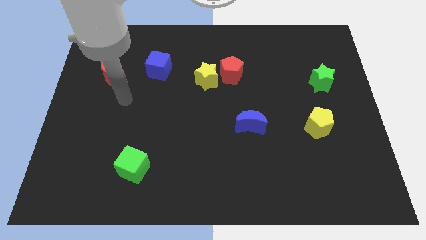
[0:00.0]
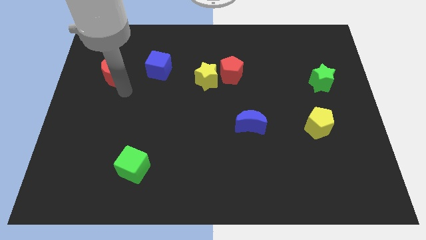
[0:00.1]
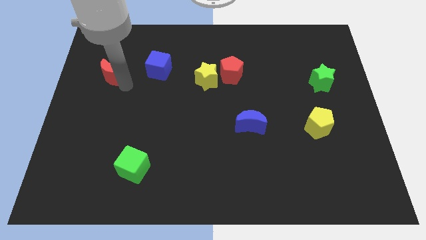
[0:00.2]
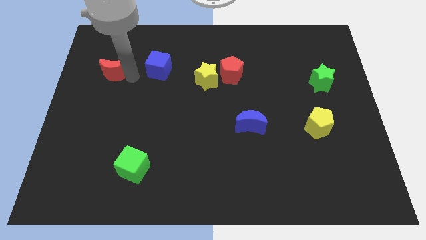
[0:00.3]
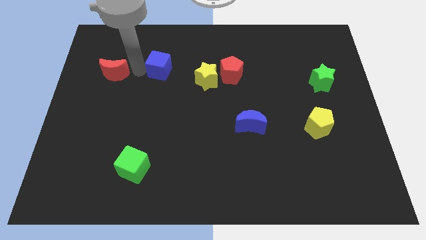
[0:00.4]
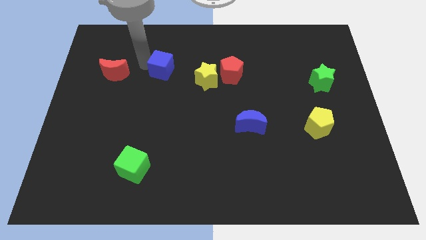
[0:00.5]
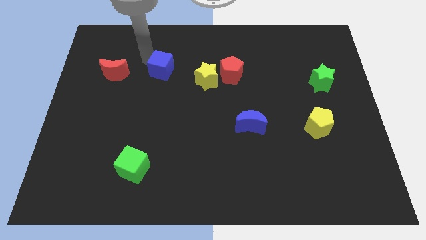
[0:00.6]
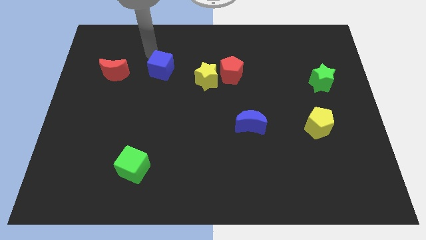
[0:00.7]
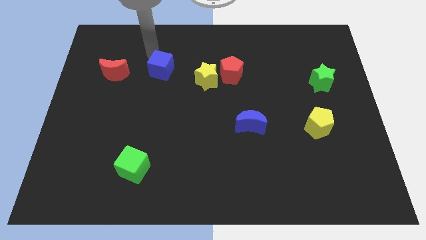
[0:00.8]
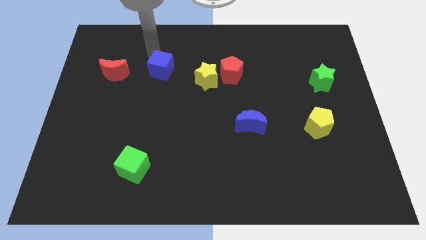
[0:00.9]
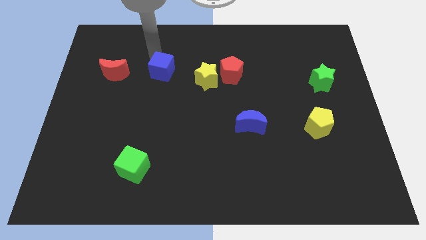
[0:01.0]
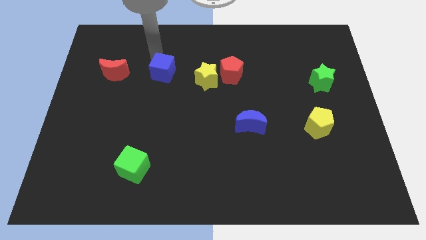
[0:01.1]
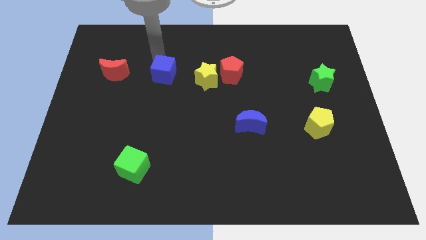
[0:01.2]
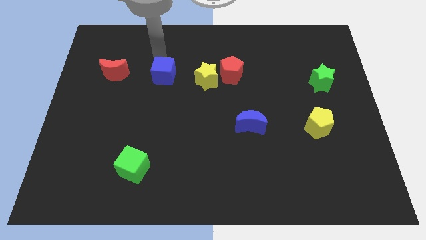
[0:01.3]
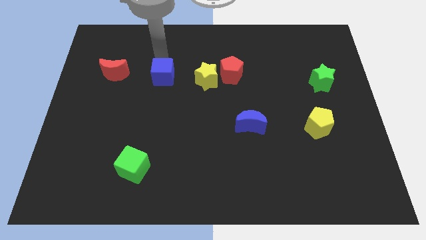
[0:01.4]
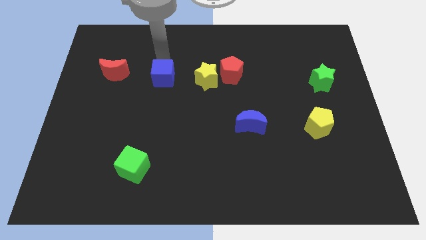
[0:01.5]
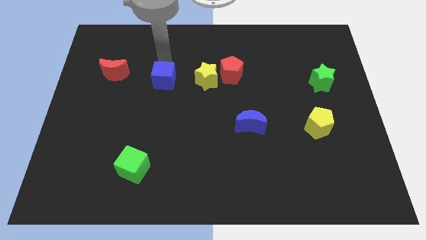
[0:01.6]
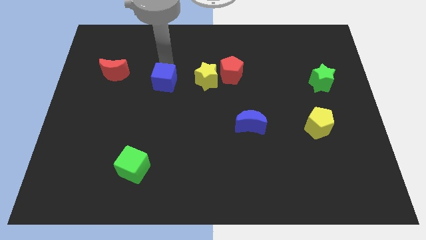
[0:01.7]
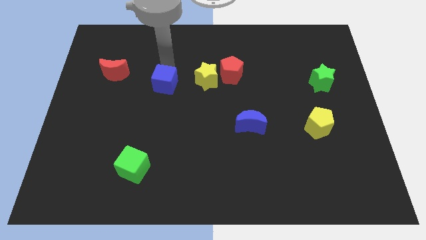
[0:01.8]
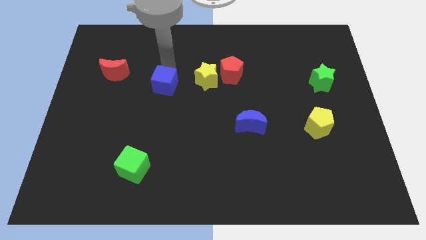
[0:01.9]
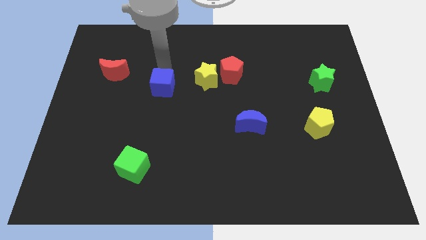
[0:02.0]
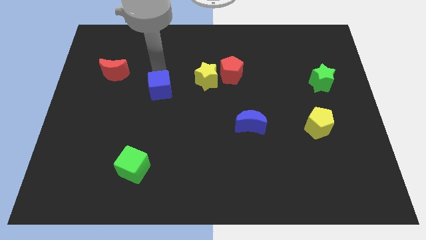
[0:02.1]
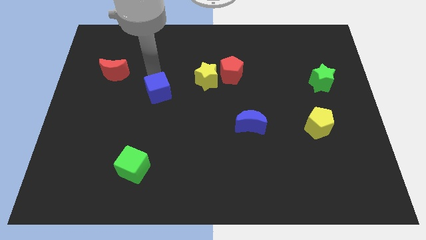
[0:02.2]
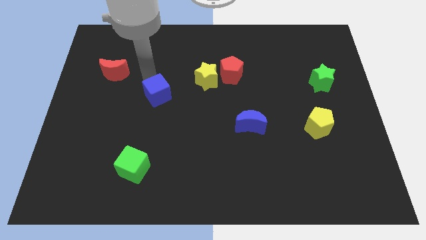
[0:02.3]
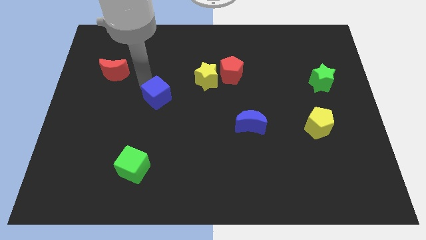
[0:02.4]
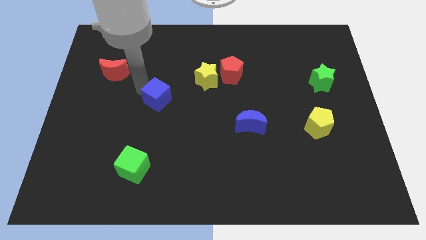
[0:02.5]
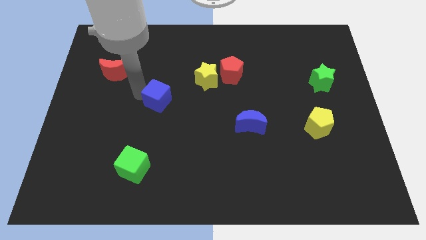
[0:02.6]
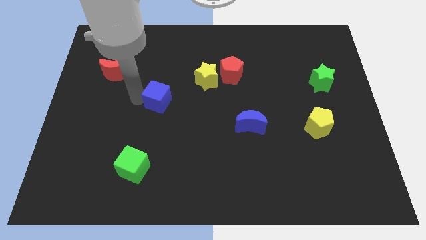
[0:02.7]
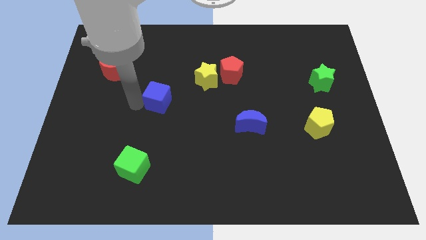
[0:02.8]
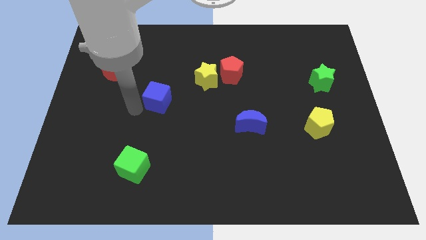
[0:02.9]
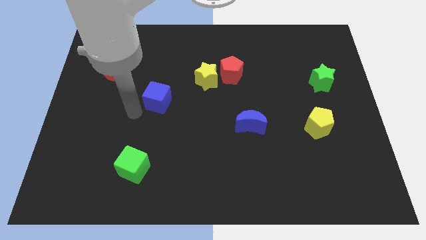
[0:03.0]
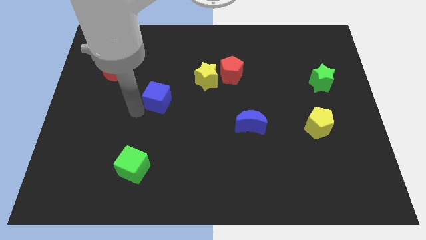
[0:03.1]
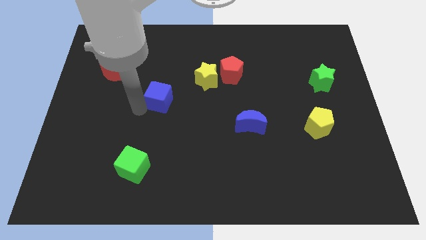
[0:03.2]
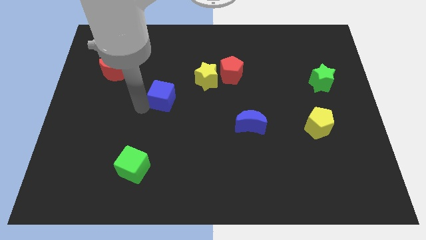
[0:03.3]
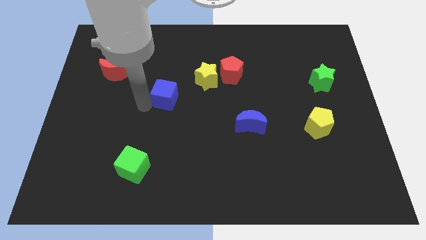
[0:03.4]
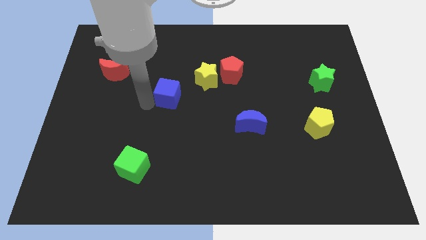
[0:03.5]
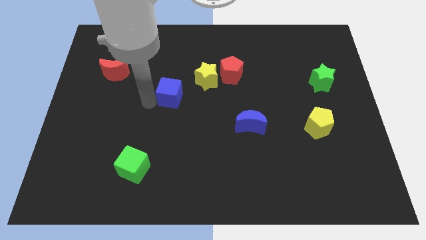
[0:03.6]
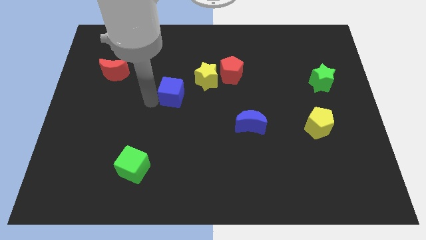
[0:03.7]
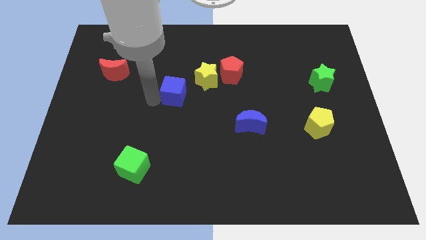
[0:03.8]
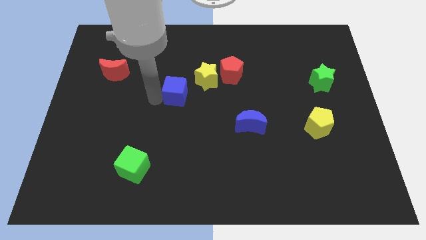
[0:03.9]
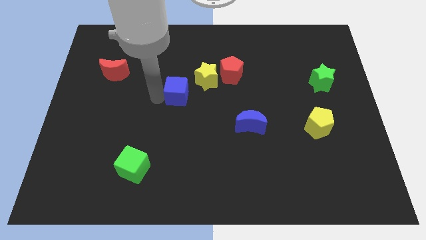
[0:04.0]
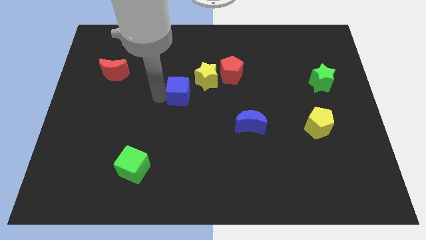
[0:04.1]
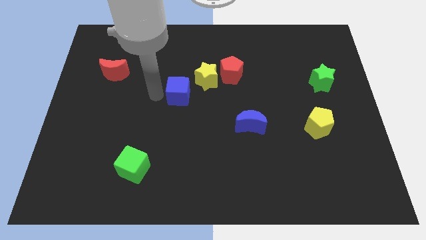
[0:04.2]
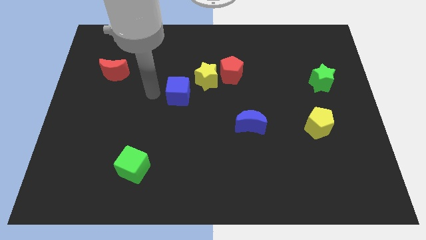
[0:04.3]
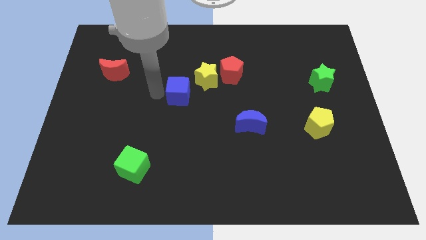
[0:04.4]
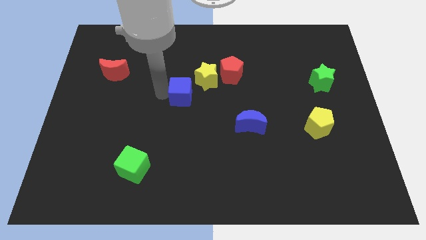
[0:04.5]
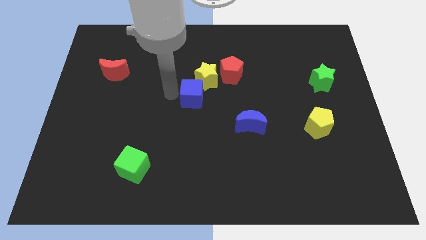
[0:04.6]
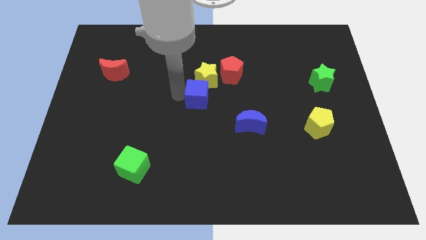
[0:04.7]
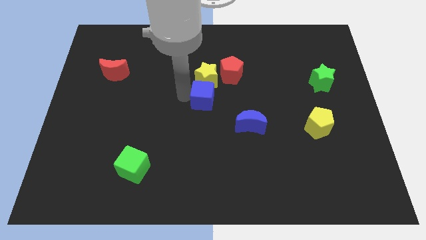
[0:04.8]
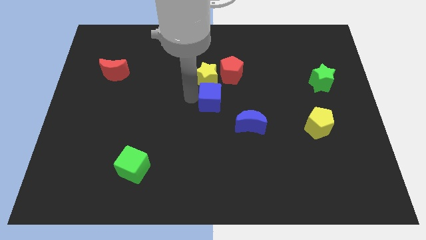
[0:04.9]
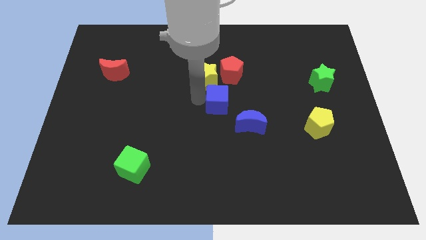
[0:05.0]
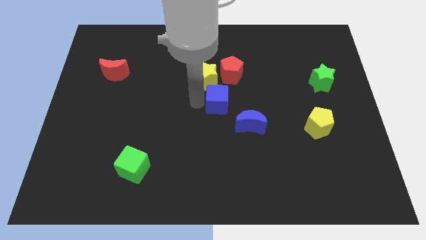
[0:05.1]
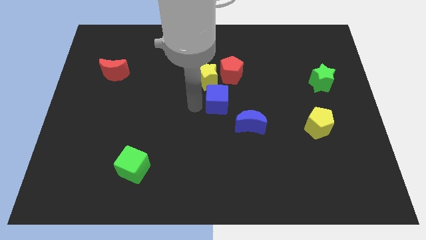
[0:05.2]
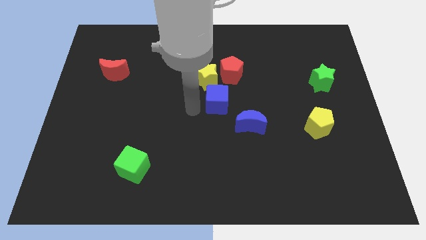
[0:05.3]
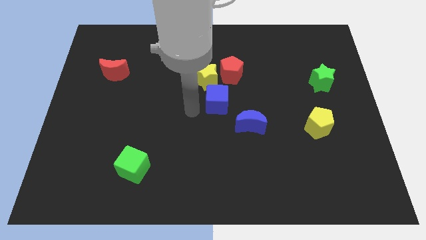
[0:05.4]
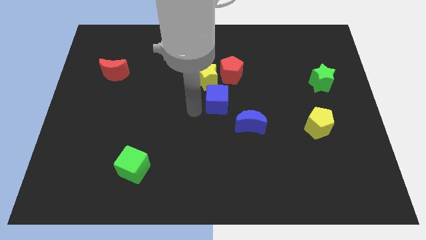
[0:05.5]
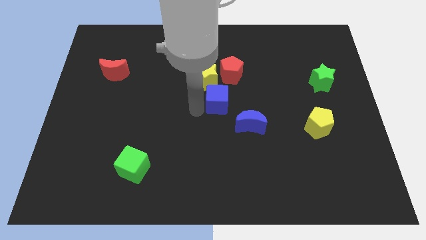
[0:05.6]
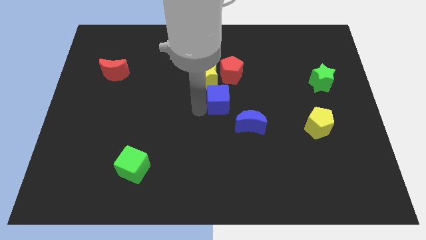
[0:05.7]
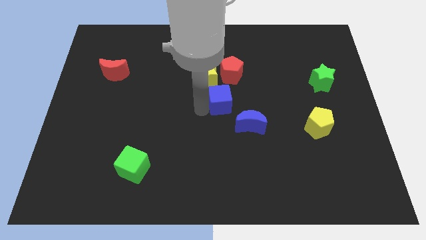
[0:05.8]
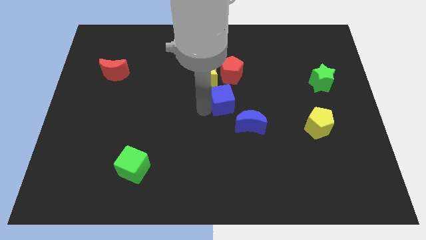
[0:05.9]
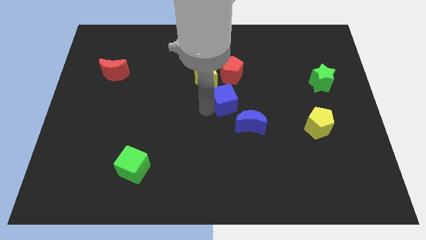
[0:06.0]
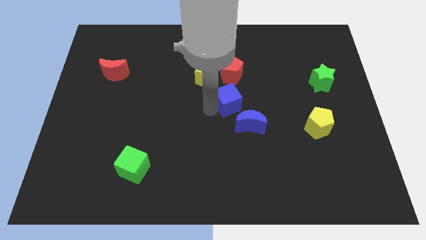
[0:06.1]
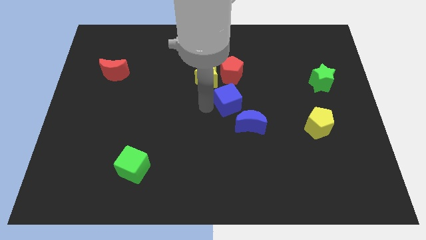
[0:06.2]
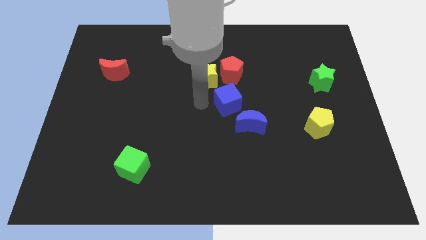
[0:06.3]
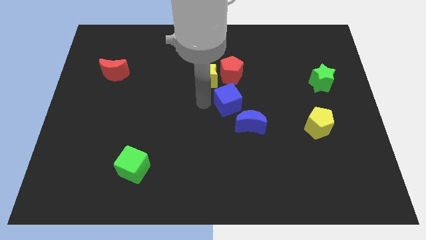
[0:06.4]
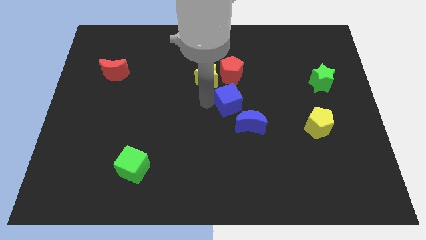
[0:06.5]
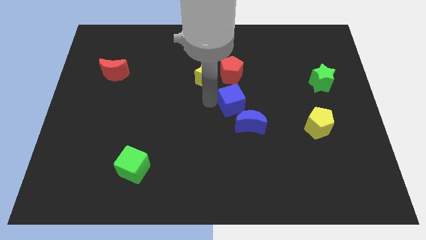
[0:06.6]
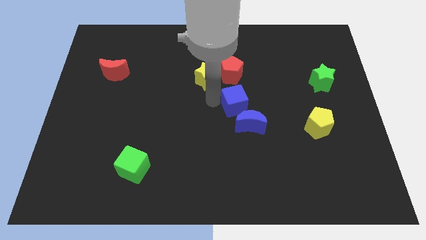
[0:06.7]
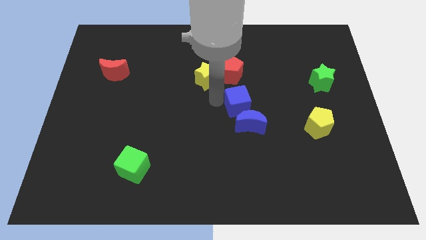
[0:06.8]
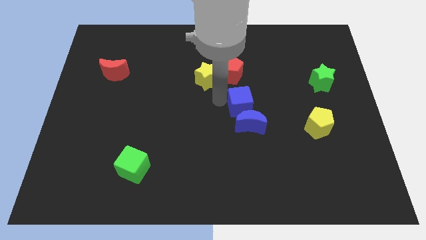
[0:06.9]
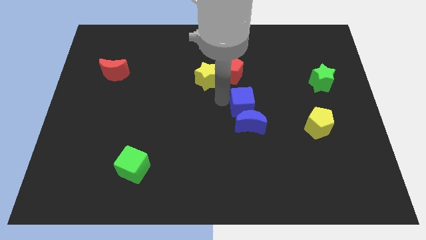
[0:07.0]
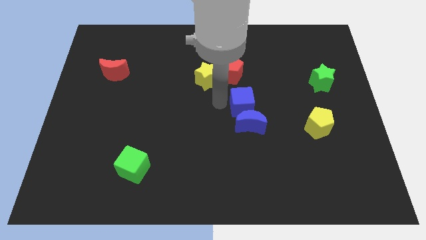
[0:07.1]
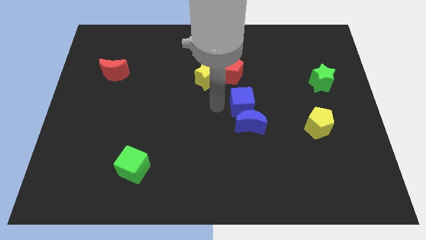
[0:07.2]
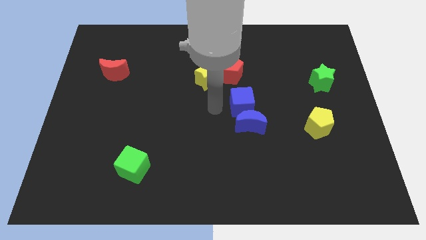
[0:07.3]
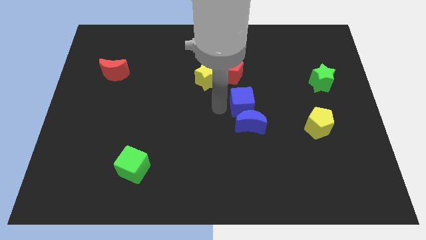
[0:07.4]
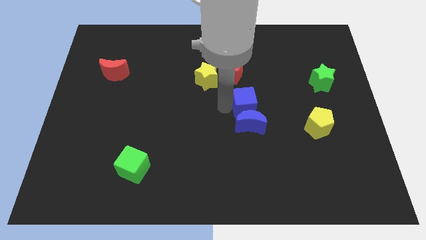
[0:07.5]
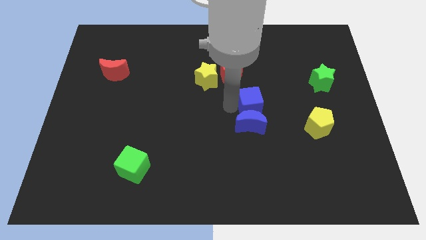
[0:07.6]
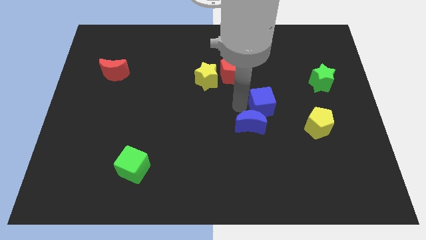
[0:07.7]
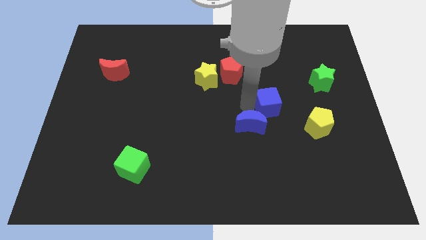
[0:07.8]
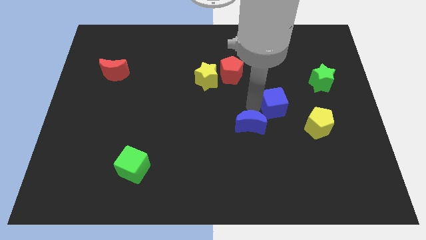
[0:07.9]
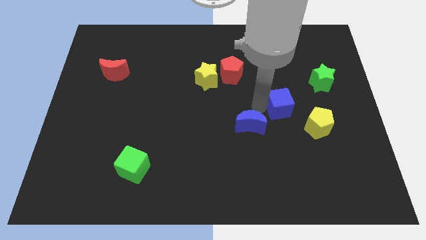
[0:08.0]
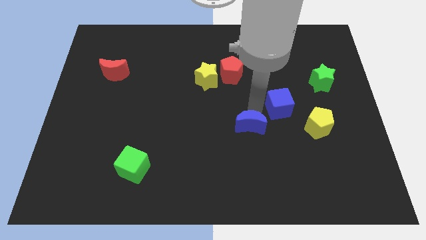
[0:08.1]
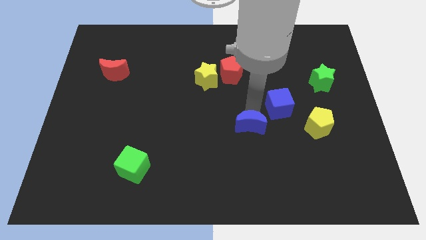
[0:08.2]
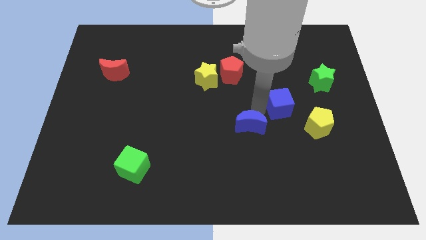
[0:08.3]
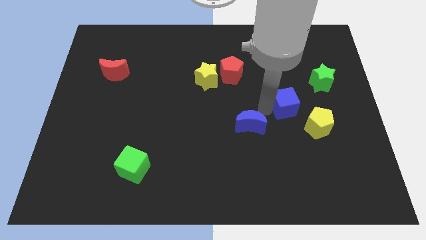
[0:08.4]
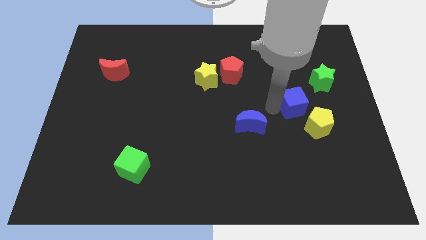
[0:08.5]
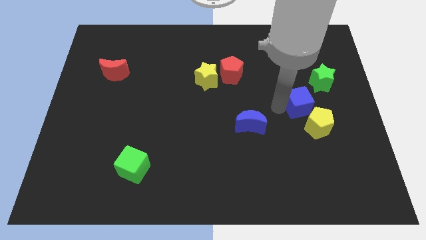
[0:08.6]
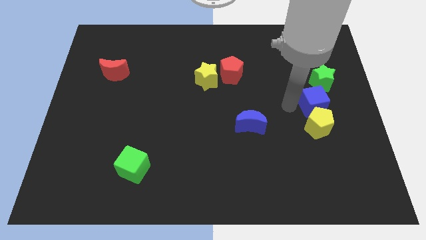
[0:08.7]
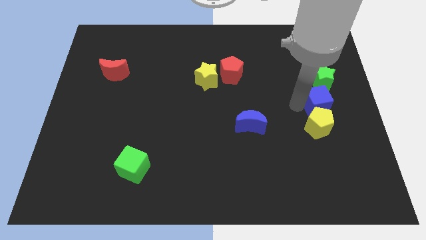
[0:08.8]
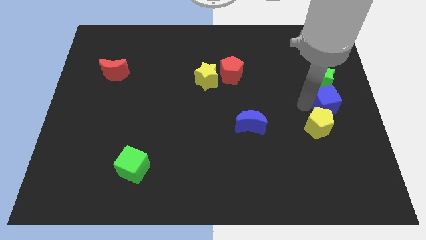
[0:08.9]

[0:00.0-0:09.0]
put the blue cube to the right side
